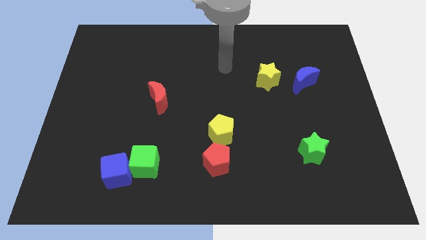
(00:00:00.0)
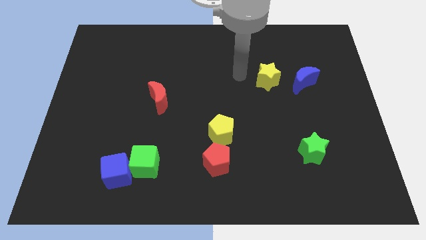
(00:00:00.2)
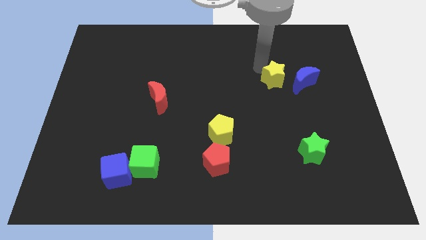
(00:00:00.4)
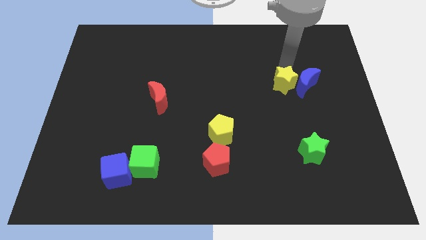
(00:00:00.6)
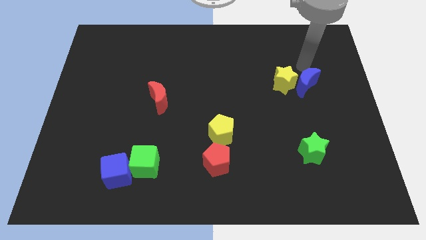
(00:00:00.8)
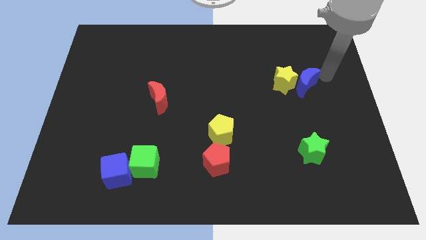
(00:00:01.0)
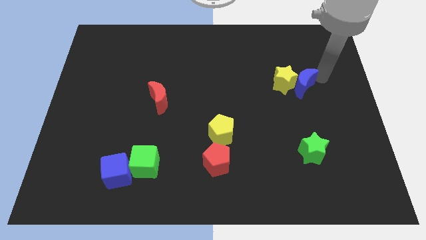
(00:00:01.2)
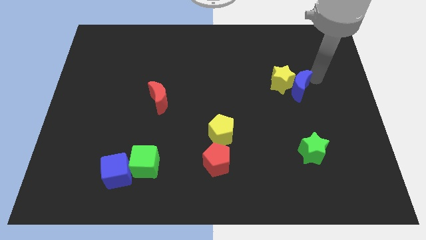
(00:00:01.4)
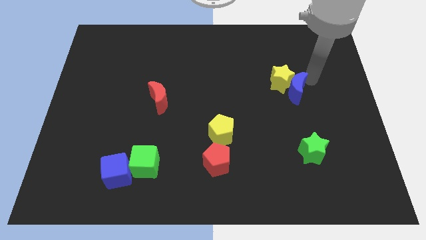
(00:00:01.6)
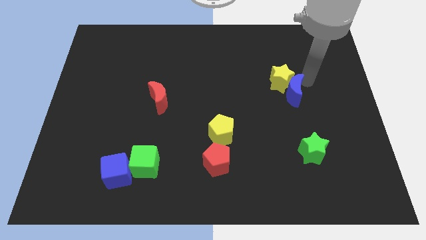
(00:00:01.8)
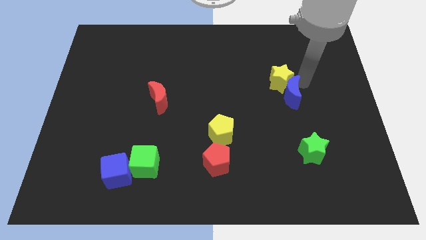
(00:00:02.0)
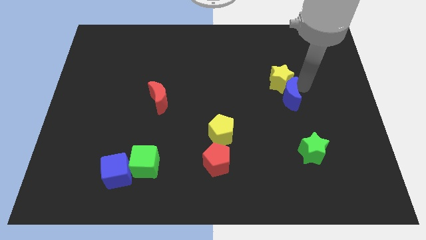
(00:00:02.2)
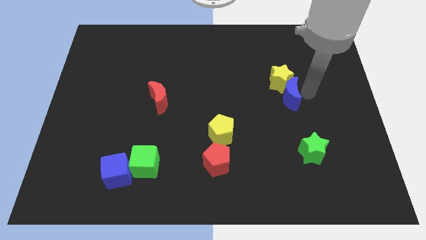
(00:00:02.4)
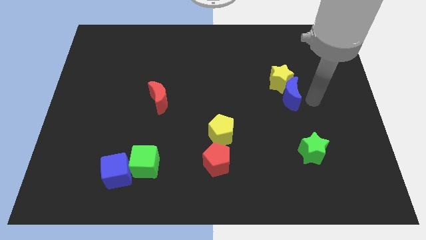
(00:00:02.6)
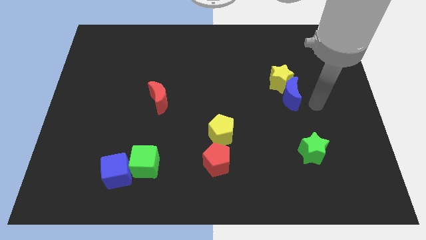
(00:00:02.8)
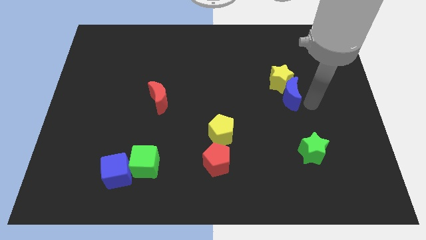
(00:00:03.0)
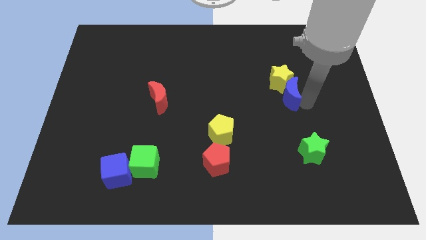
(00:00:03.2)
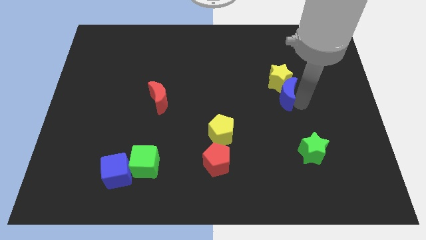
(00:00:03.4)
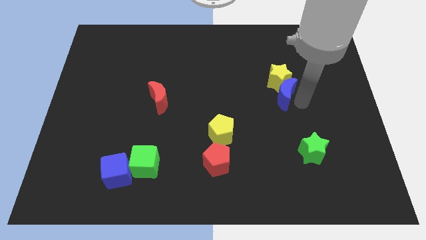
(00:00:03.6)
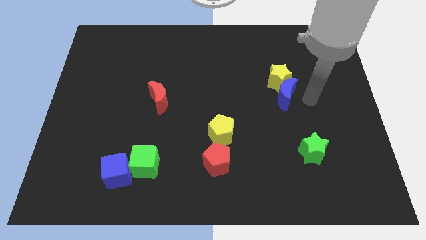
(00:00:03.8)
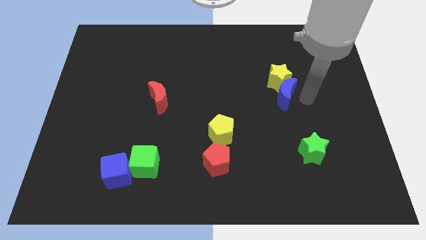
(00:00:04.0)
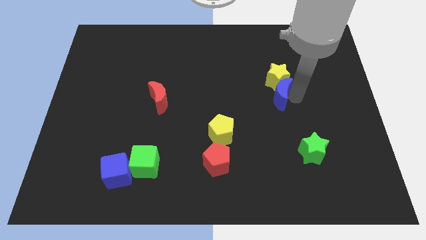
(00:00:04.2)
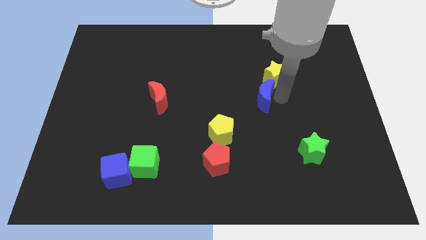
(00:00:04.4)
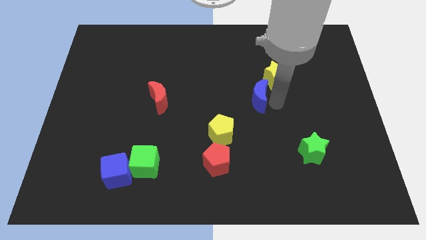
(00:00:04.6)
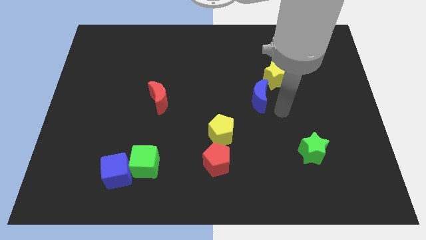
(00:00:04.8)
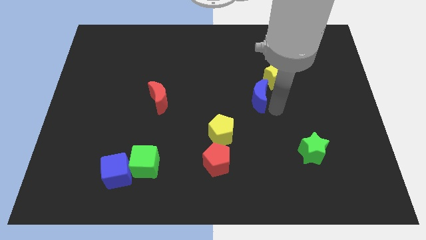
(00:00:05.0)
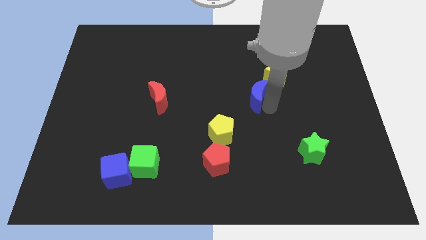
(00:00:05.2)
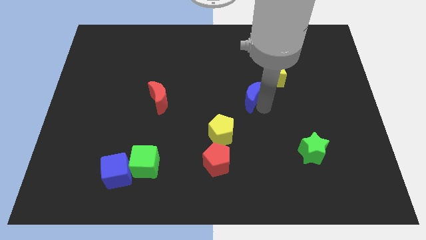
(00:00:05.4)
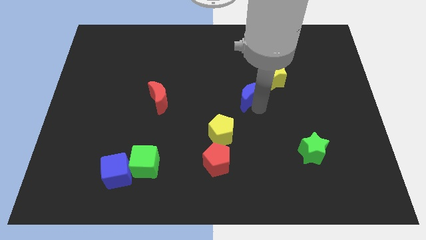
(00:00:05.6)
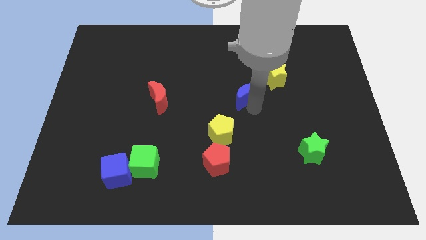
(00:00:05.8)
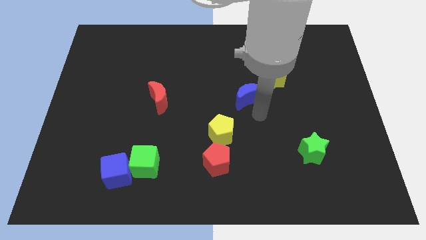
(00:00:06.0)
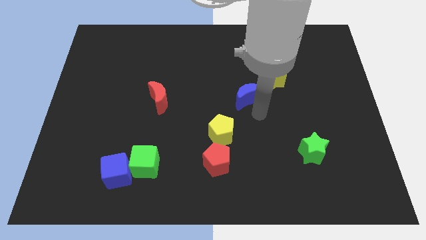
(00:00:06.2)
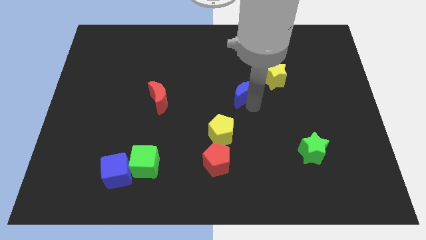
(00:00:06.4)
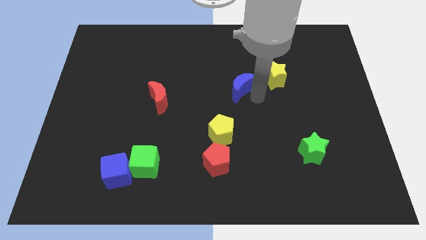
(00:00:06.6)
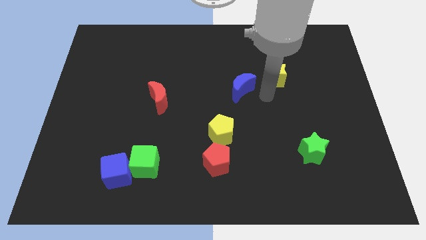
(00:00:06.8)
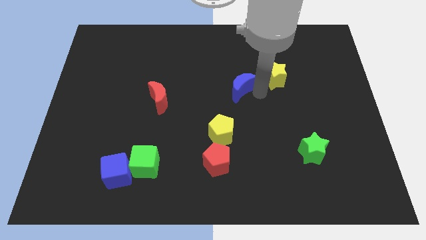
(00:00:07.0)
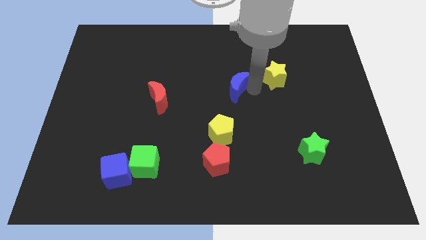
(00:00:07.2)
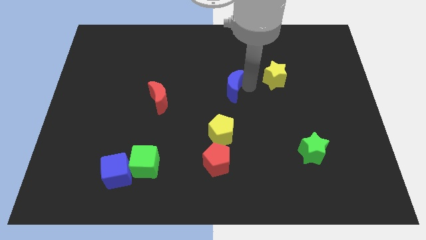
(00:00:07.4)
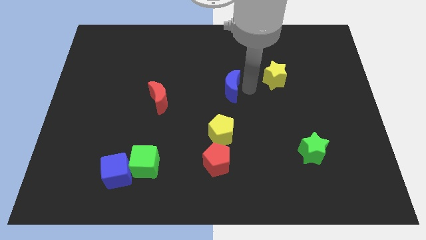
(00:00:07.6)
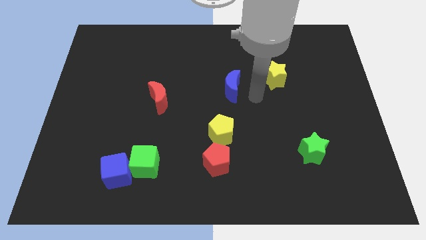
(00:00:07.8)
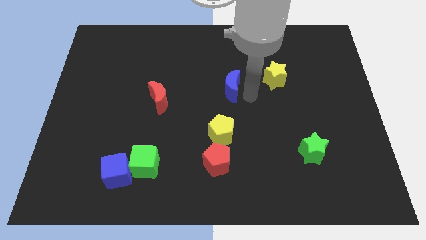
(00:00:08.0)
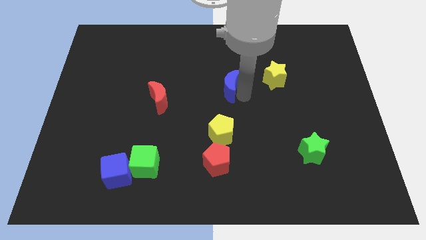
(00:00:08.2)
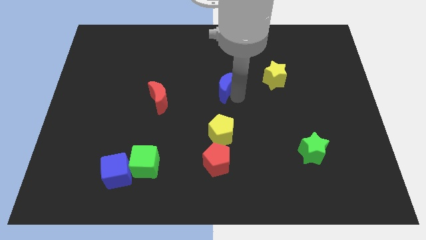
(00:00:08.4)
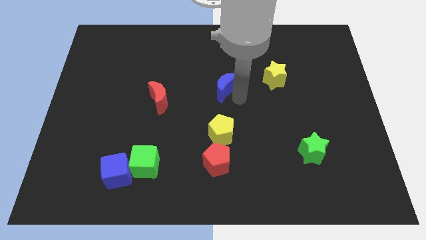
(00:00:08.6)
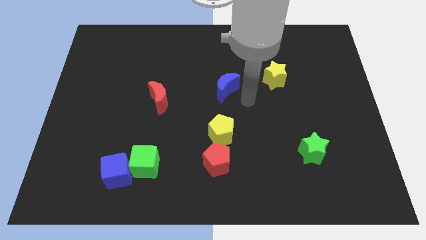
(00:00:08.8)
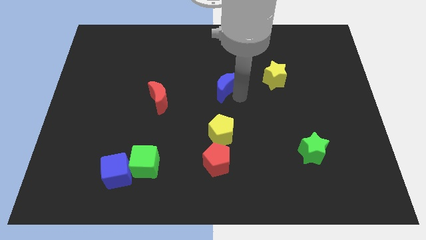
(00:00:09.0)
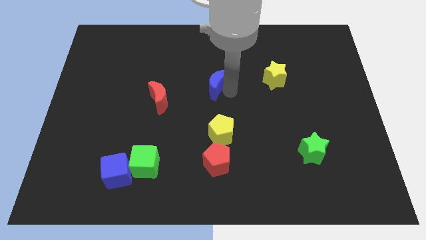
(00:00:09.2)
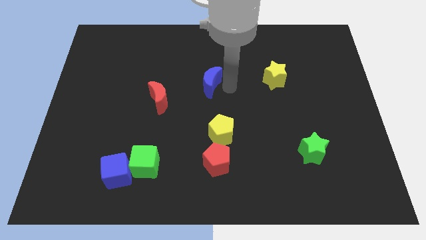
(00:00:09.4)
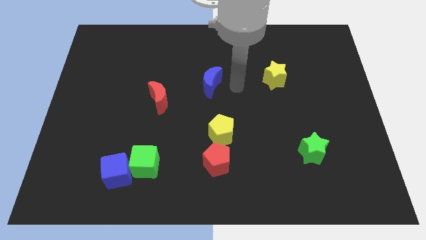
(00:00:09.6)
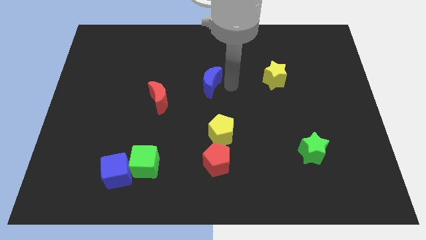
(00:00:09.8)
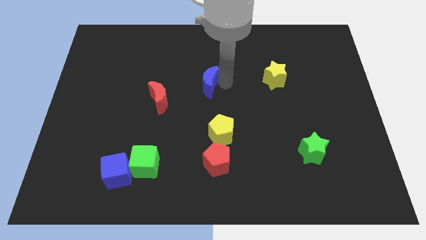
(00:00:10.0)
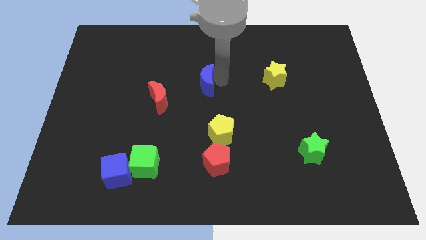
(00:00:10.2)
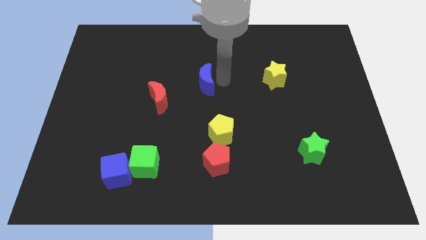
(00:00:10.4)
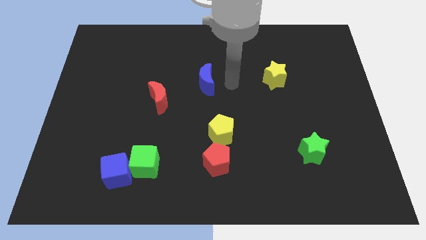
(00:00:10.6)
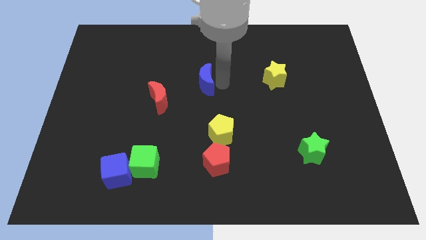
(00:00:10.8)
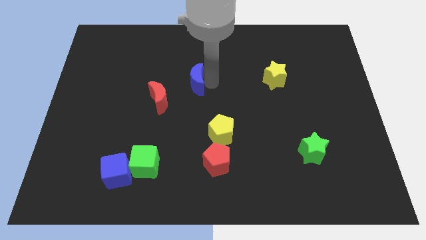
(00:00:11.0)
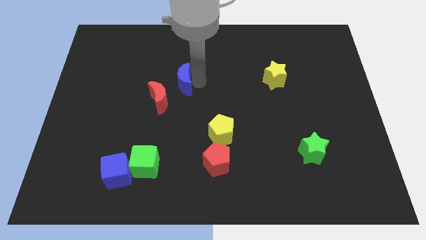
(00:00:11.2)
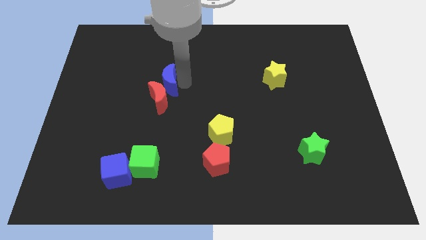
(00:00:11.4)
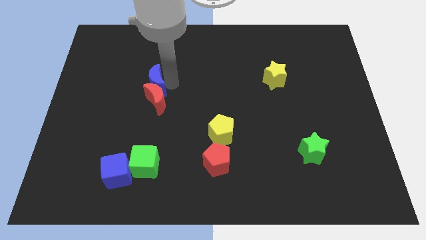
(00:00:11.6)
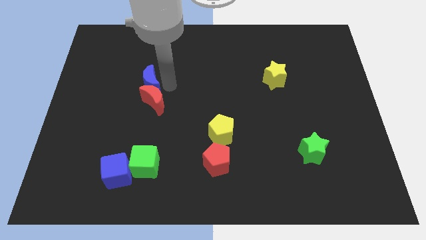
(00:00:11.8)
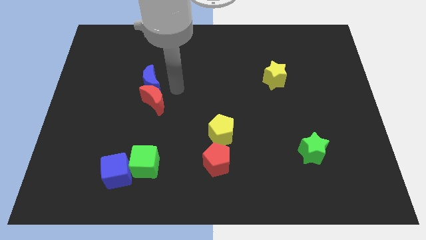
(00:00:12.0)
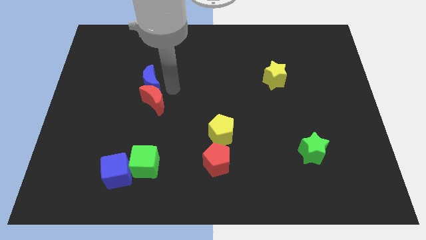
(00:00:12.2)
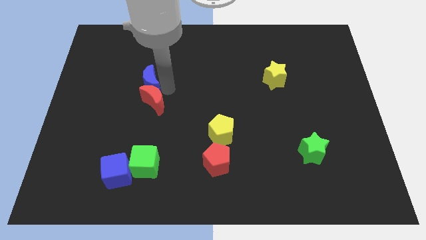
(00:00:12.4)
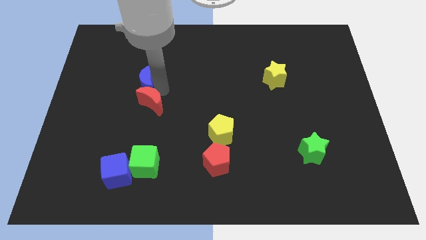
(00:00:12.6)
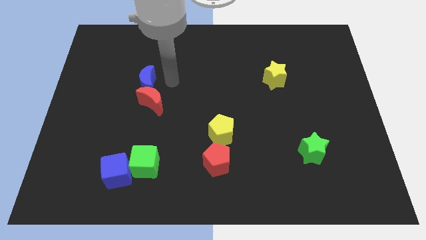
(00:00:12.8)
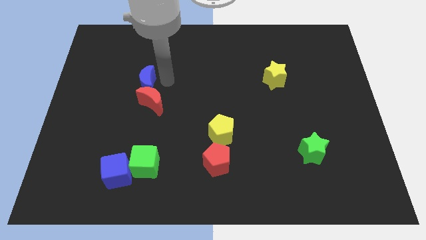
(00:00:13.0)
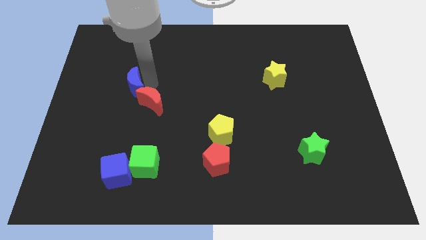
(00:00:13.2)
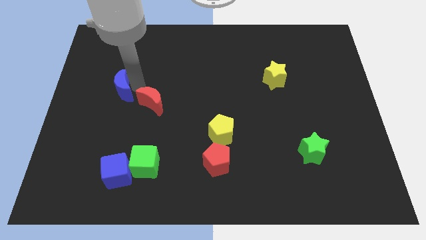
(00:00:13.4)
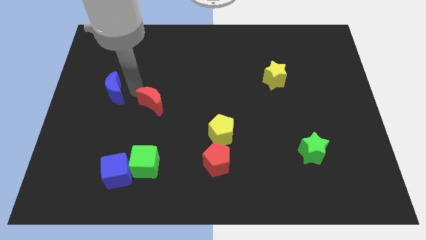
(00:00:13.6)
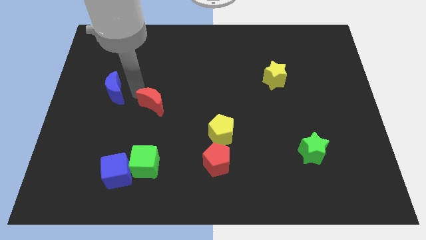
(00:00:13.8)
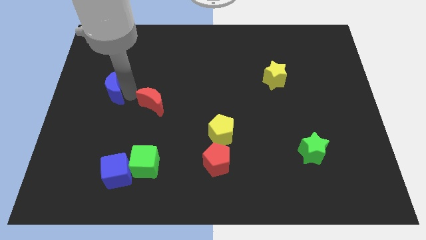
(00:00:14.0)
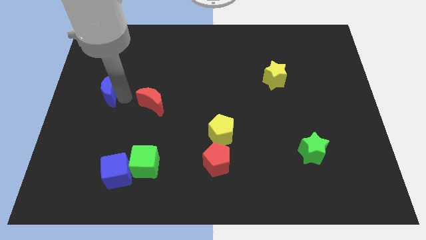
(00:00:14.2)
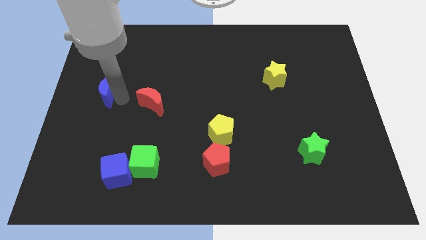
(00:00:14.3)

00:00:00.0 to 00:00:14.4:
put the blue moon to the left side
